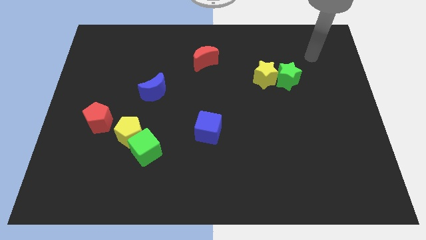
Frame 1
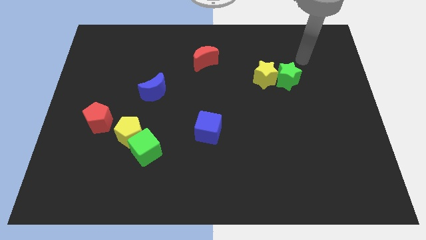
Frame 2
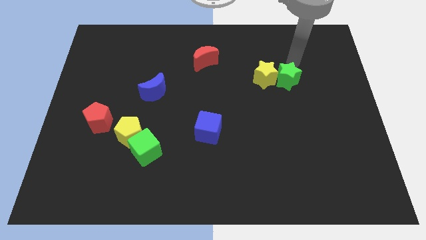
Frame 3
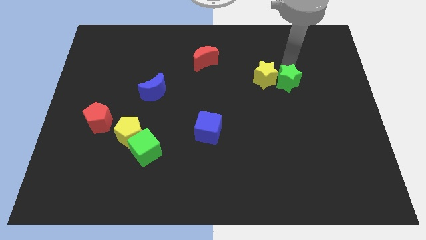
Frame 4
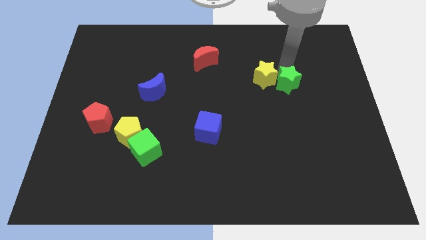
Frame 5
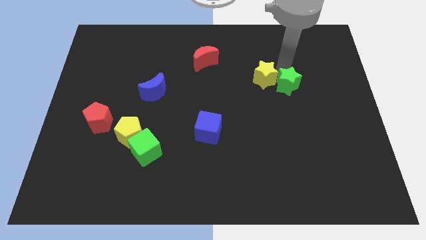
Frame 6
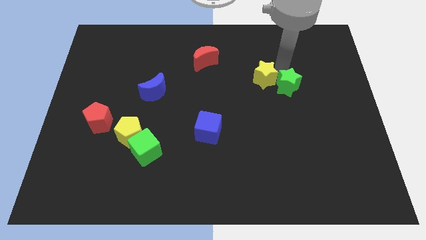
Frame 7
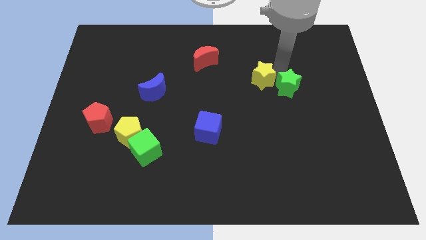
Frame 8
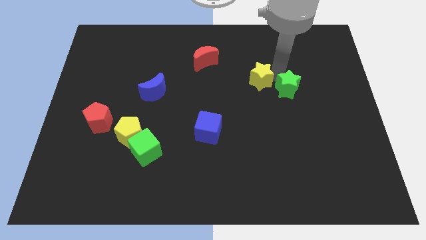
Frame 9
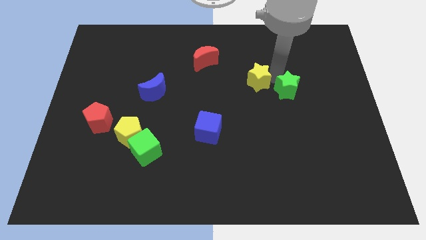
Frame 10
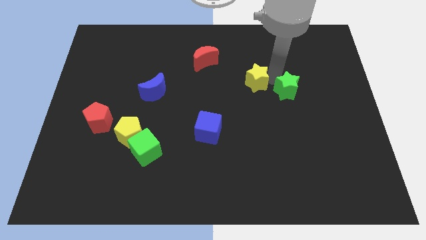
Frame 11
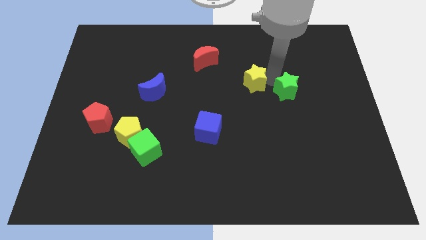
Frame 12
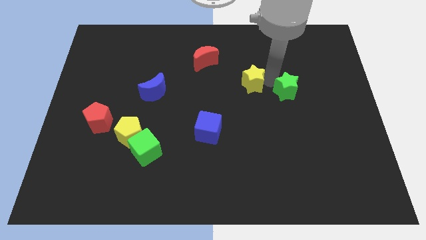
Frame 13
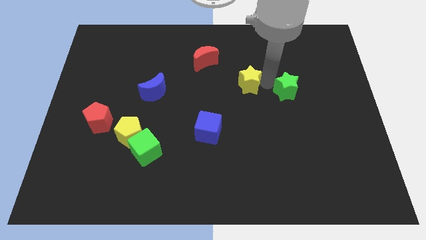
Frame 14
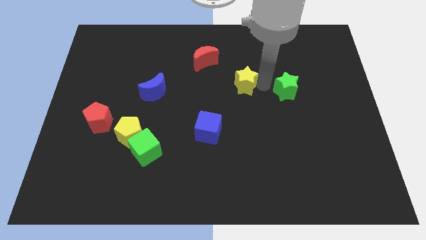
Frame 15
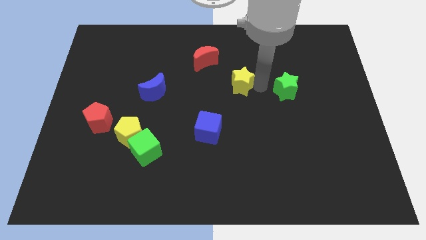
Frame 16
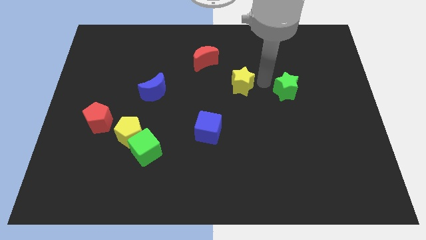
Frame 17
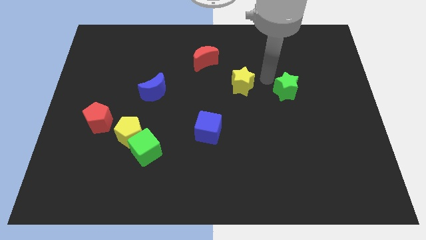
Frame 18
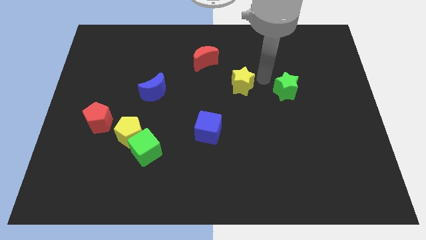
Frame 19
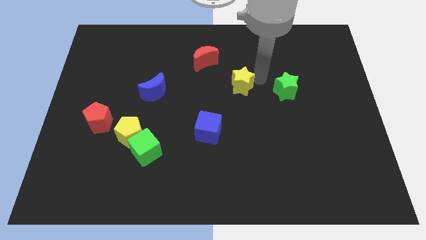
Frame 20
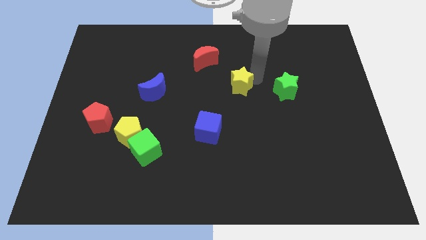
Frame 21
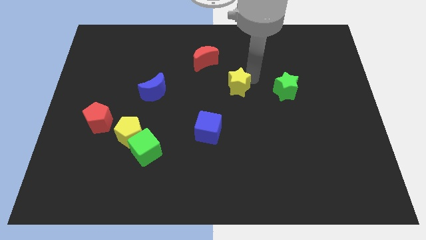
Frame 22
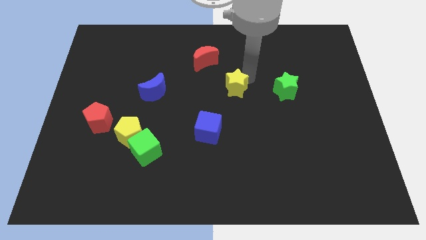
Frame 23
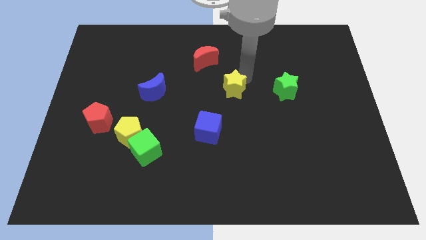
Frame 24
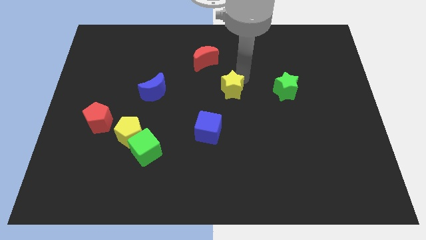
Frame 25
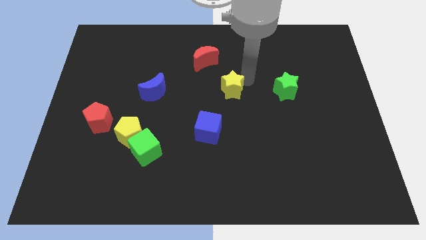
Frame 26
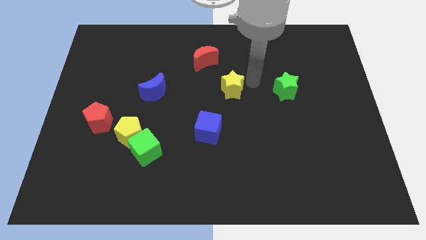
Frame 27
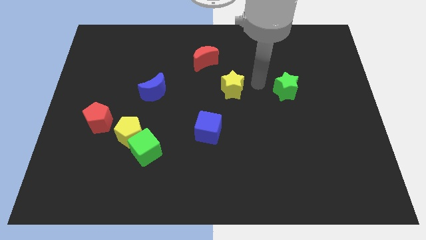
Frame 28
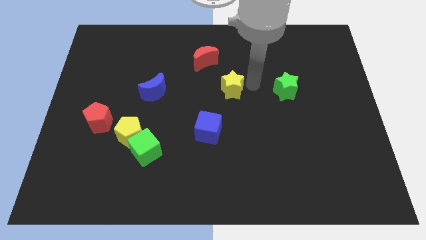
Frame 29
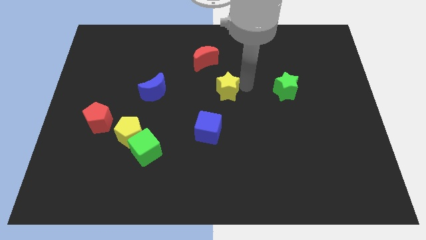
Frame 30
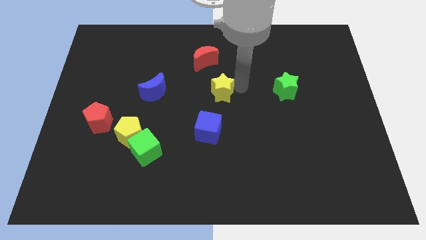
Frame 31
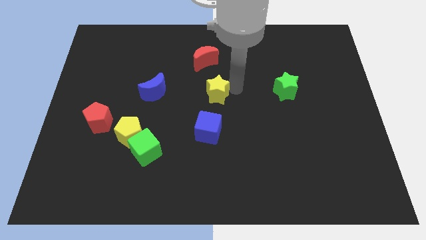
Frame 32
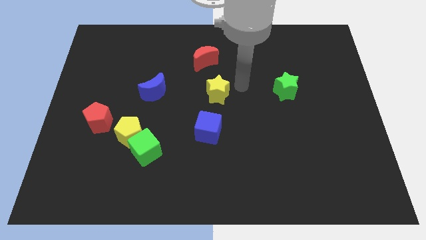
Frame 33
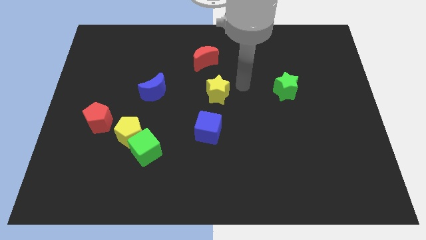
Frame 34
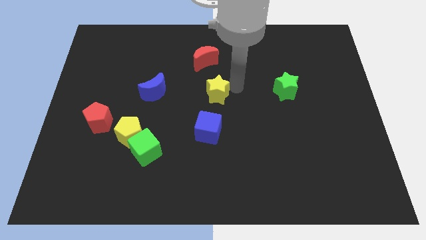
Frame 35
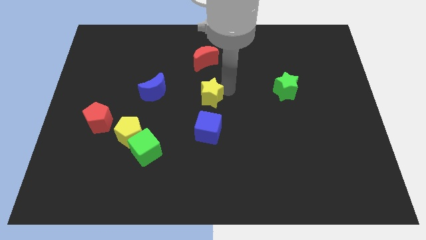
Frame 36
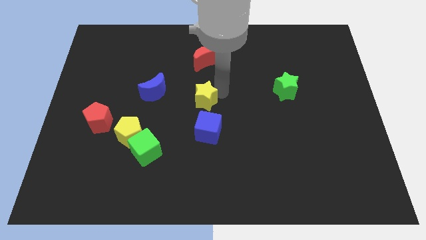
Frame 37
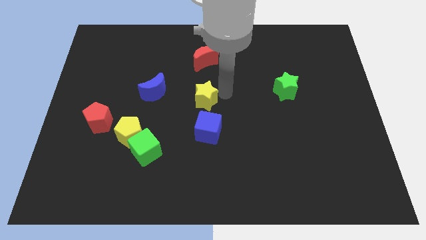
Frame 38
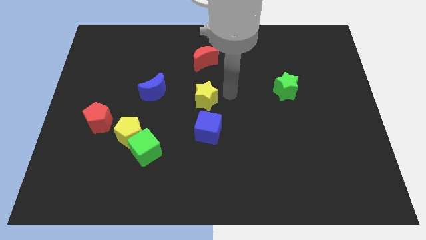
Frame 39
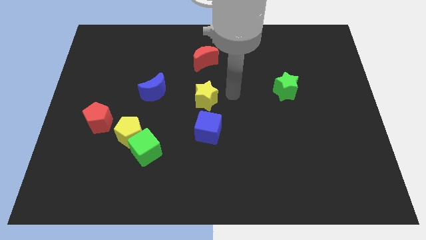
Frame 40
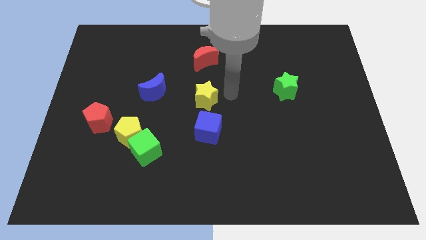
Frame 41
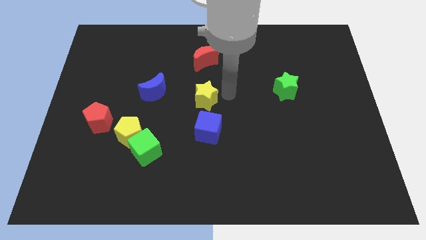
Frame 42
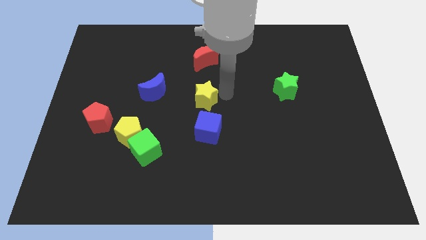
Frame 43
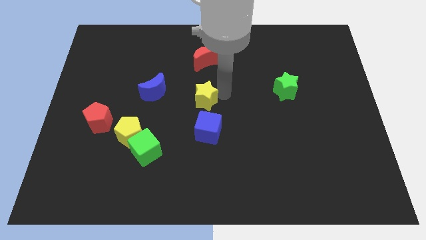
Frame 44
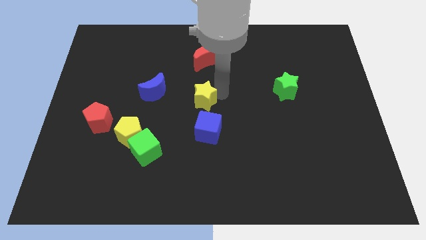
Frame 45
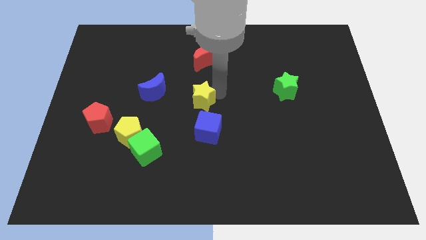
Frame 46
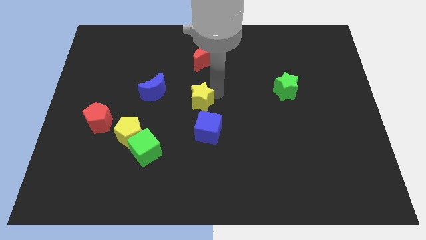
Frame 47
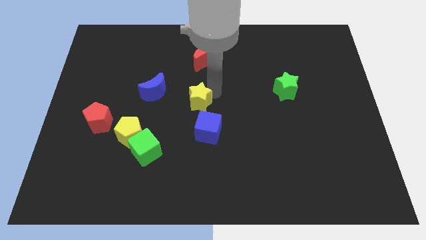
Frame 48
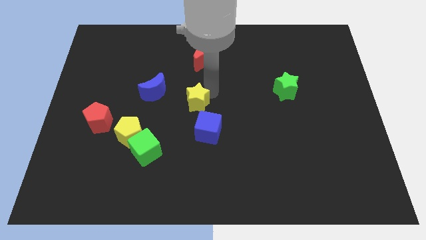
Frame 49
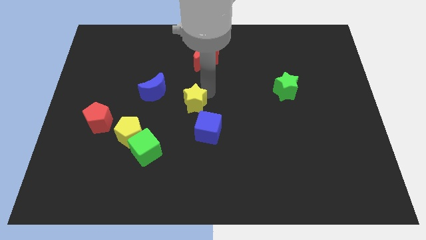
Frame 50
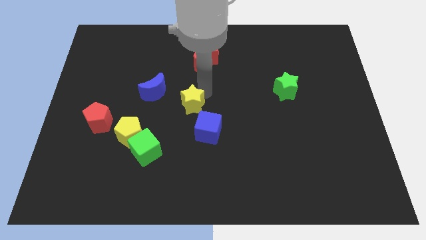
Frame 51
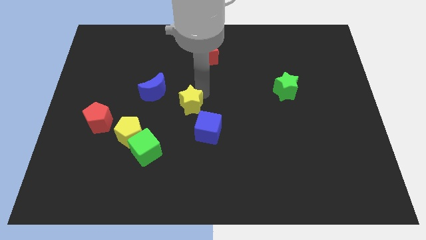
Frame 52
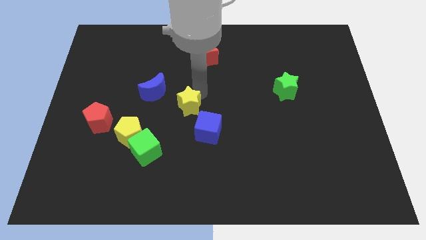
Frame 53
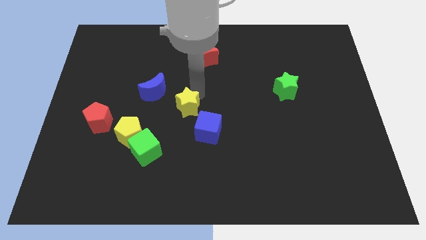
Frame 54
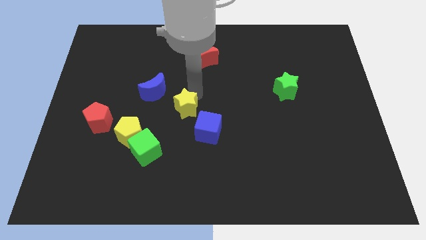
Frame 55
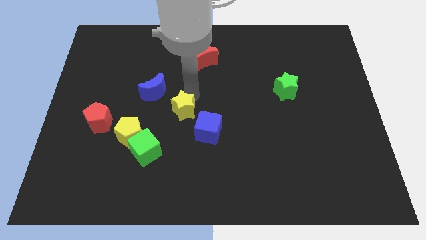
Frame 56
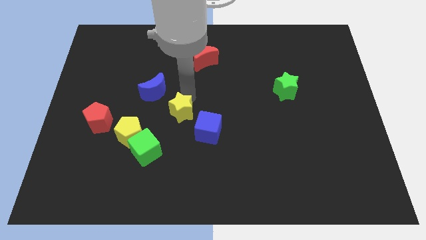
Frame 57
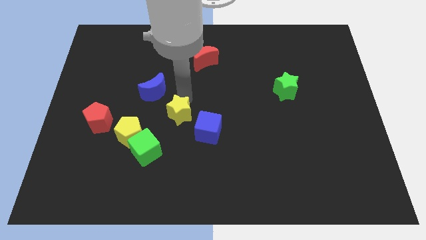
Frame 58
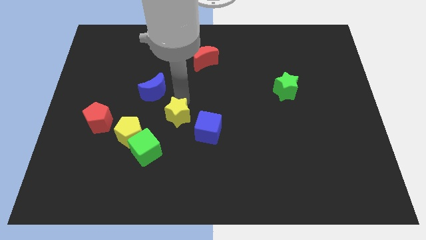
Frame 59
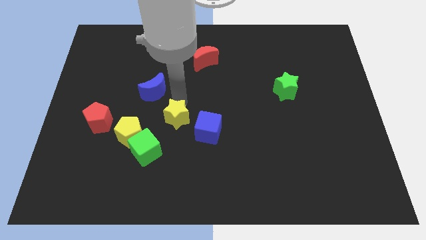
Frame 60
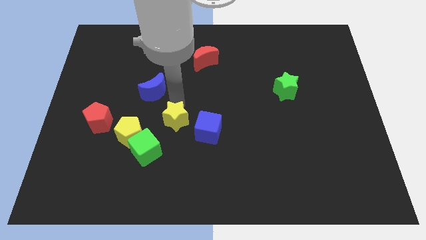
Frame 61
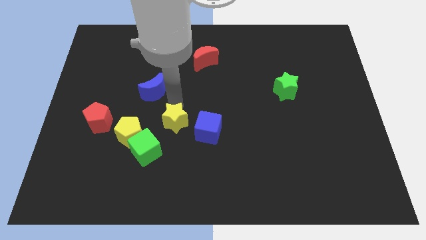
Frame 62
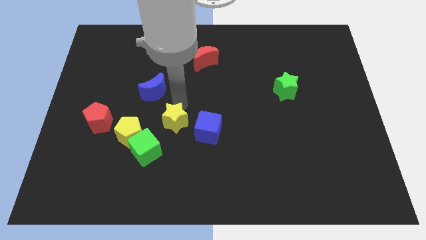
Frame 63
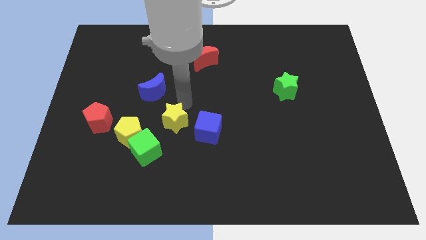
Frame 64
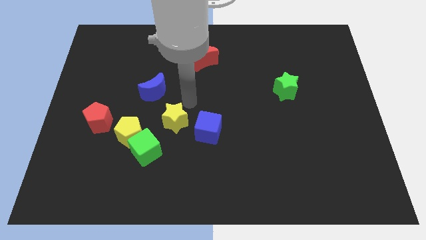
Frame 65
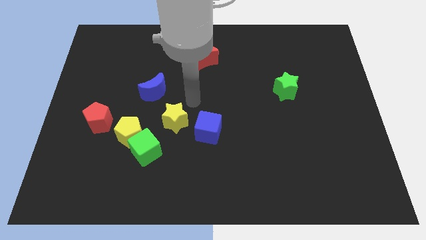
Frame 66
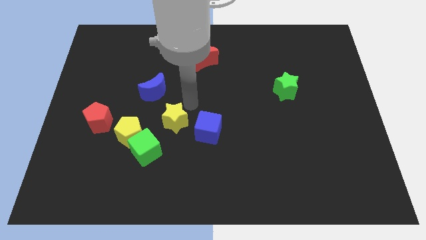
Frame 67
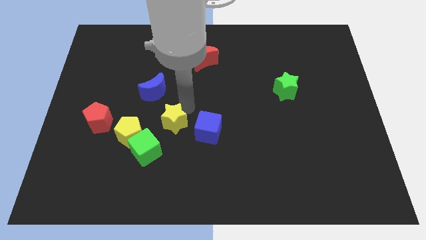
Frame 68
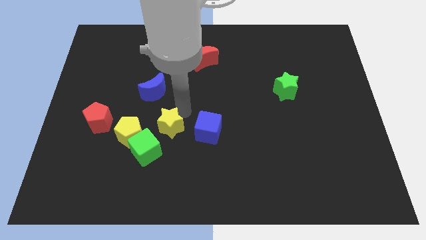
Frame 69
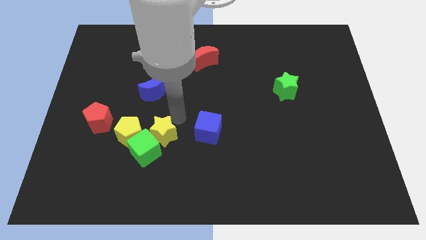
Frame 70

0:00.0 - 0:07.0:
slide the yellow star to the green cube
